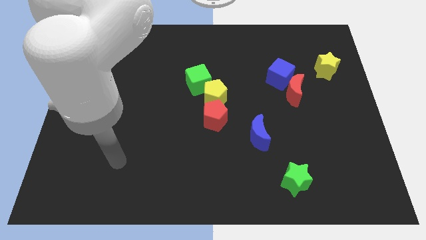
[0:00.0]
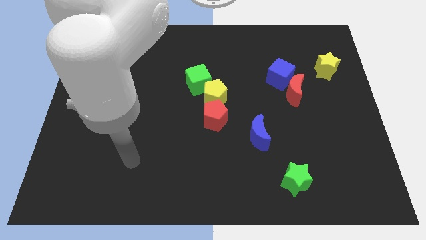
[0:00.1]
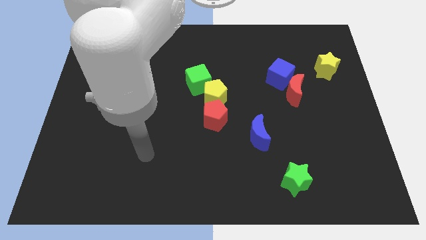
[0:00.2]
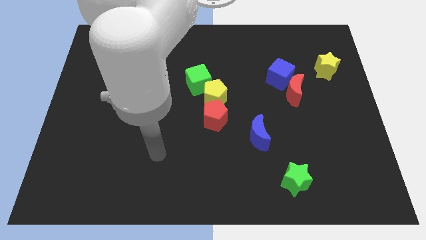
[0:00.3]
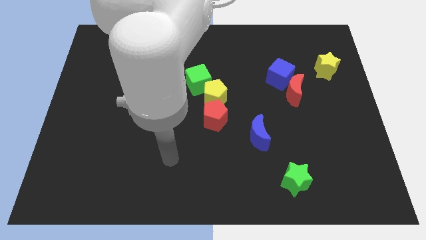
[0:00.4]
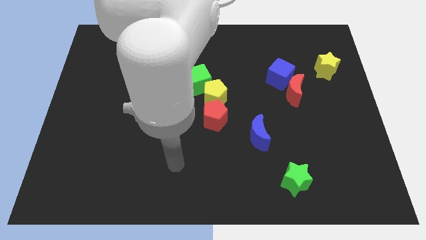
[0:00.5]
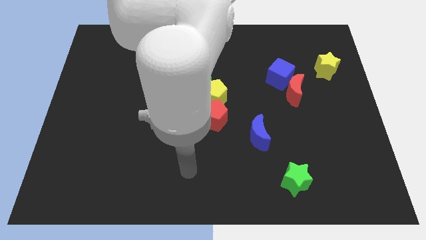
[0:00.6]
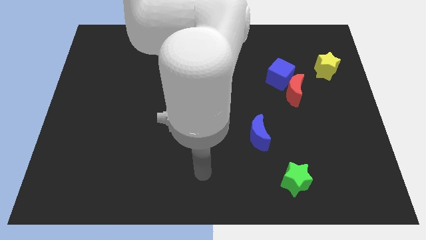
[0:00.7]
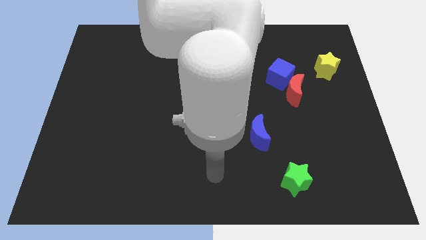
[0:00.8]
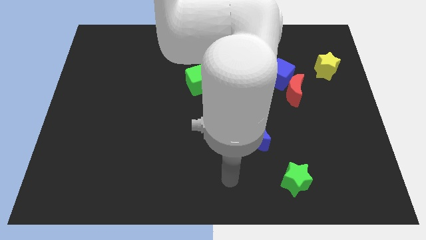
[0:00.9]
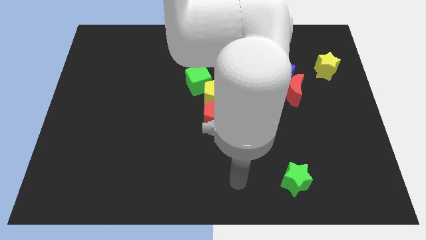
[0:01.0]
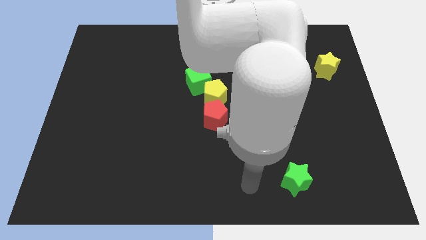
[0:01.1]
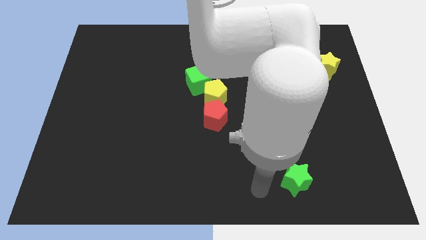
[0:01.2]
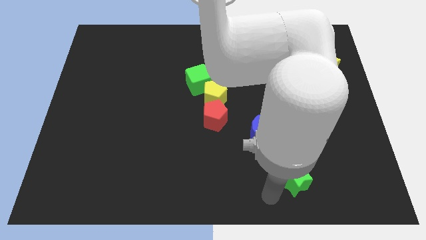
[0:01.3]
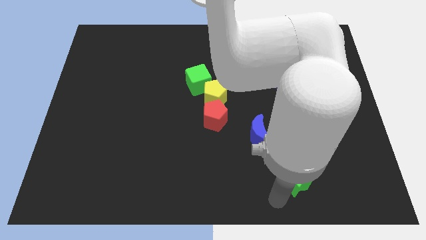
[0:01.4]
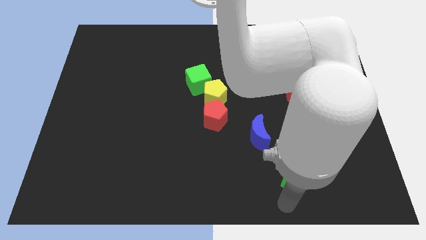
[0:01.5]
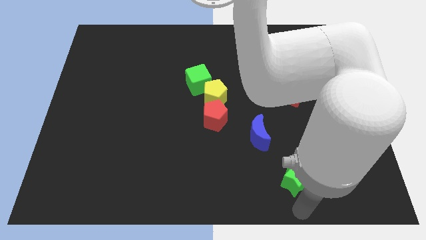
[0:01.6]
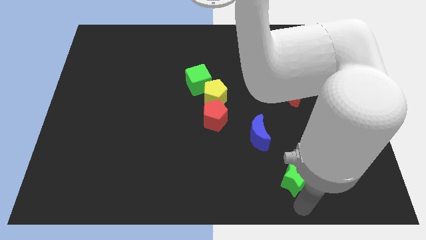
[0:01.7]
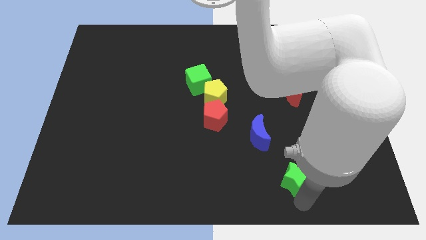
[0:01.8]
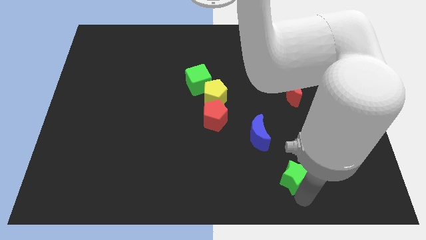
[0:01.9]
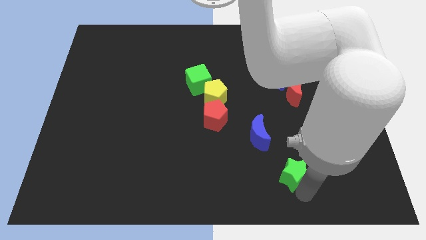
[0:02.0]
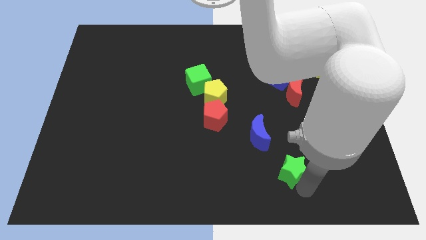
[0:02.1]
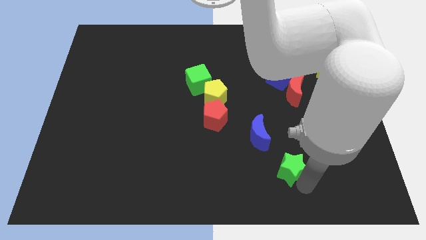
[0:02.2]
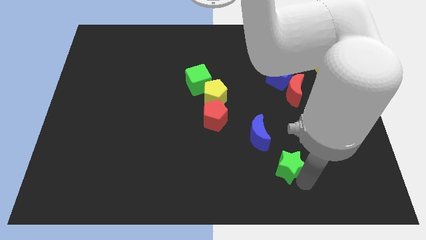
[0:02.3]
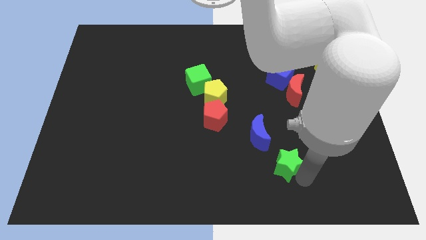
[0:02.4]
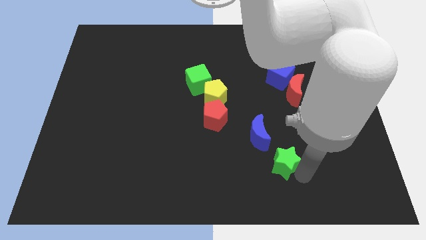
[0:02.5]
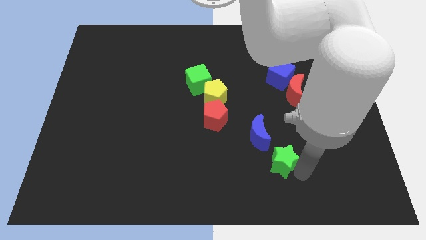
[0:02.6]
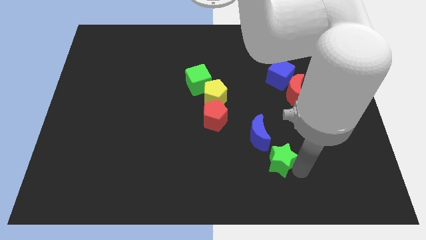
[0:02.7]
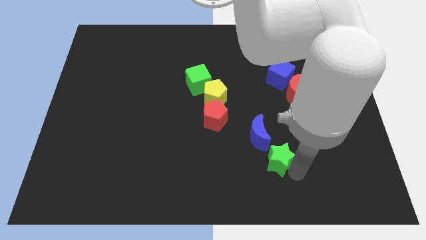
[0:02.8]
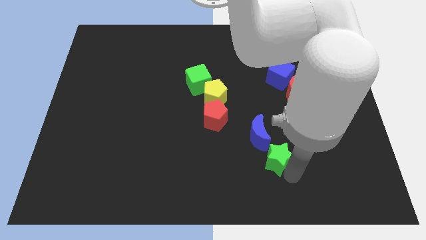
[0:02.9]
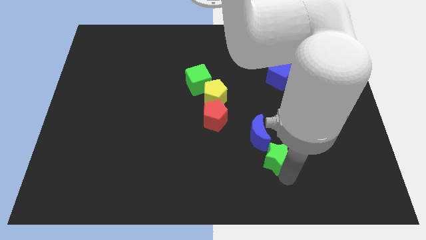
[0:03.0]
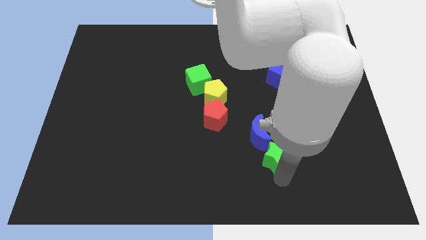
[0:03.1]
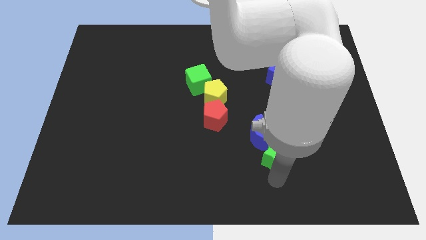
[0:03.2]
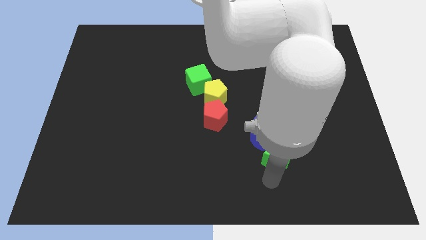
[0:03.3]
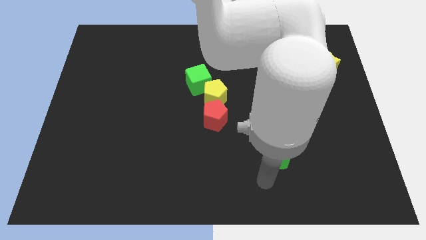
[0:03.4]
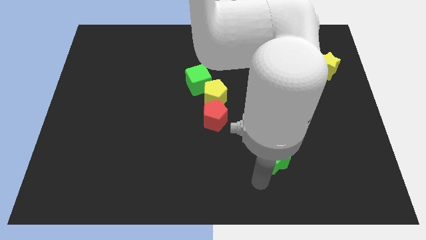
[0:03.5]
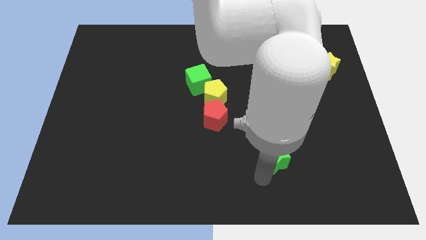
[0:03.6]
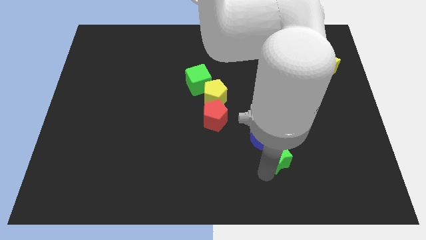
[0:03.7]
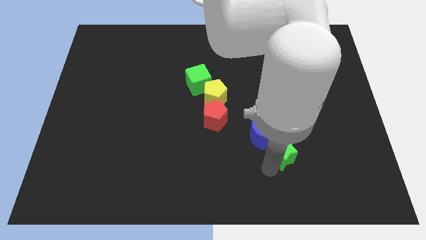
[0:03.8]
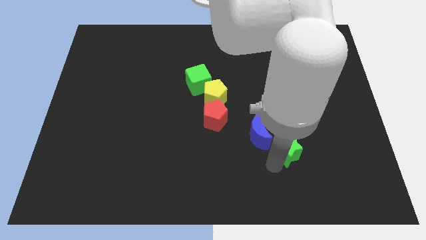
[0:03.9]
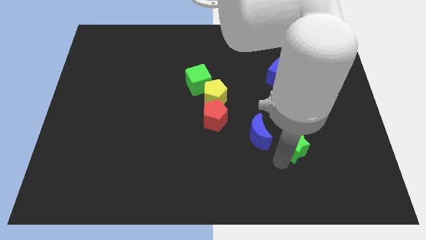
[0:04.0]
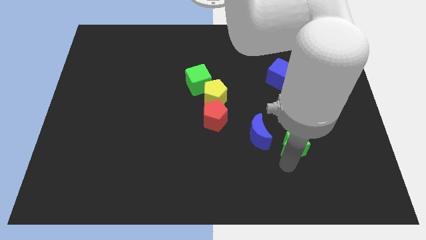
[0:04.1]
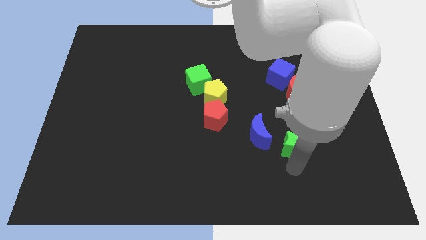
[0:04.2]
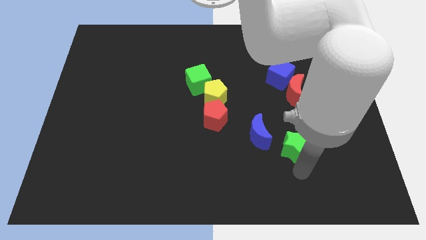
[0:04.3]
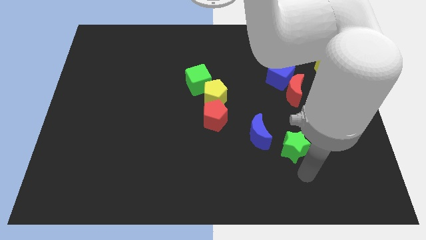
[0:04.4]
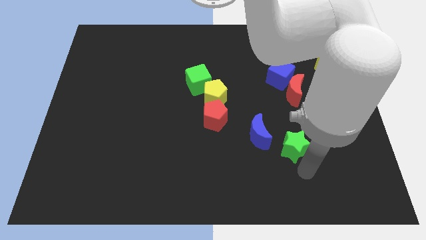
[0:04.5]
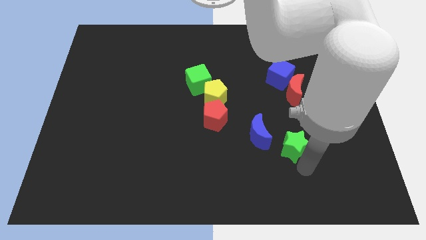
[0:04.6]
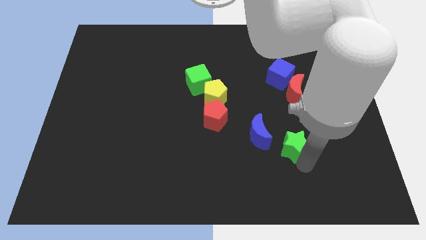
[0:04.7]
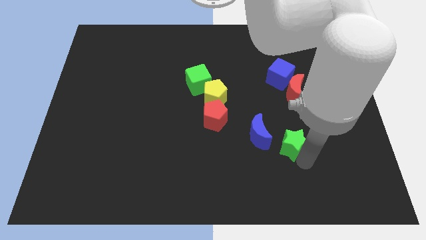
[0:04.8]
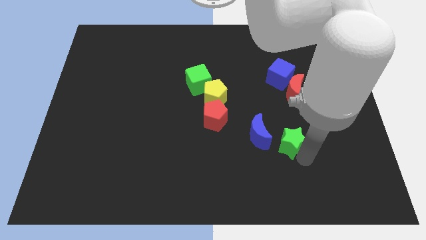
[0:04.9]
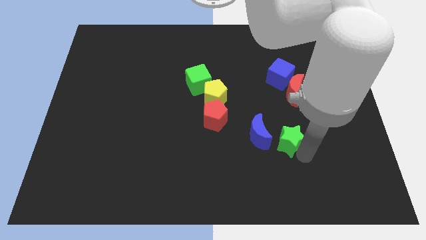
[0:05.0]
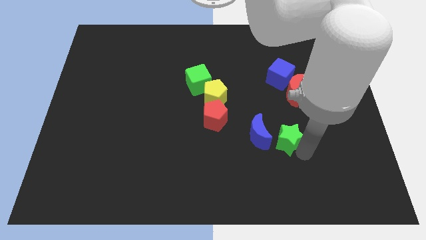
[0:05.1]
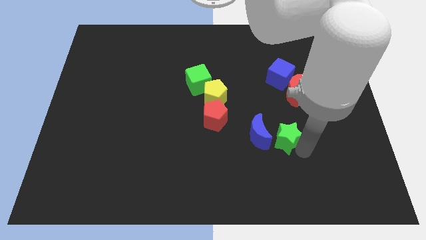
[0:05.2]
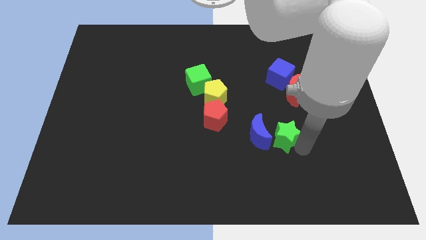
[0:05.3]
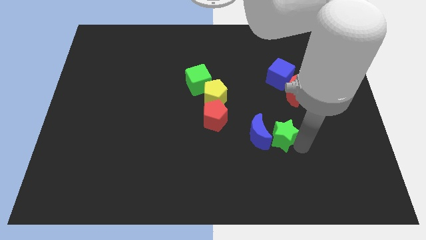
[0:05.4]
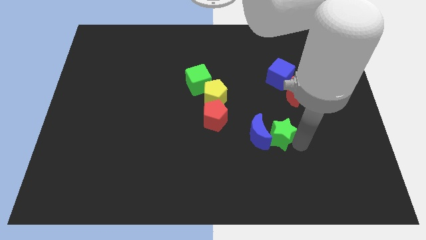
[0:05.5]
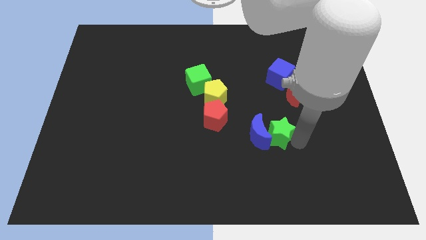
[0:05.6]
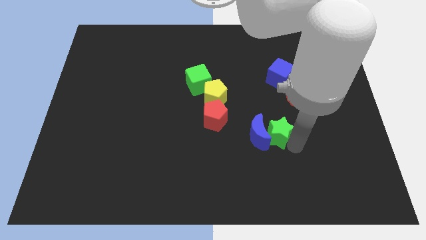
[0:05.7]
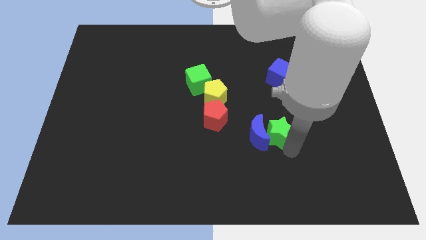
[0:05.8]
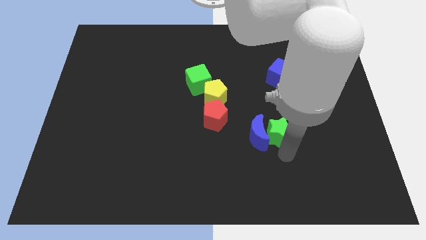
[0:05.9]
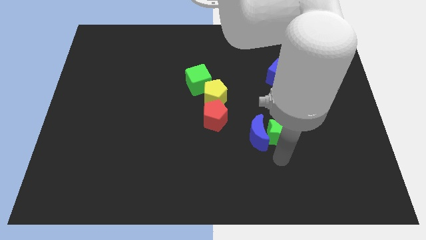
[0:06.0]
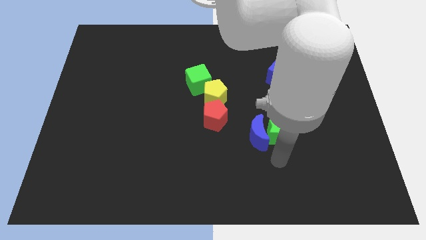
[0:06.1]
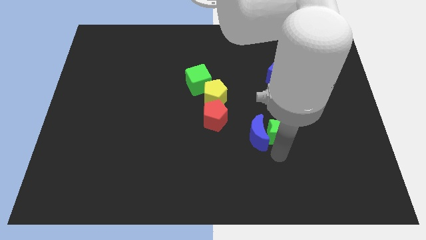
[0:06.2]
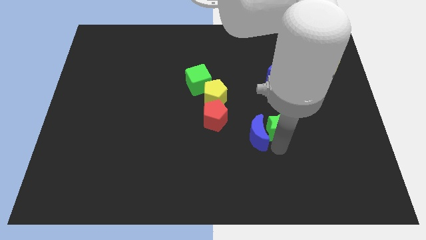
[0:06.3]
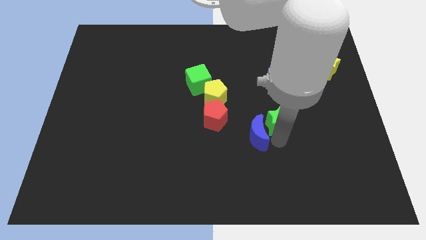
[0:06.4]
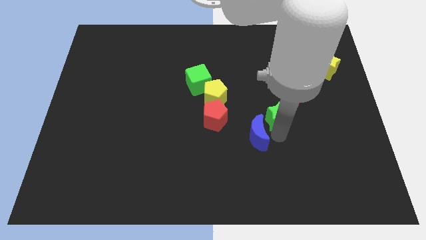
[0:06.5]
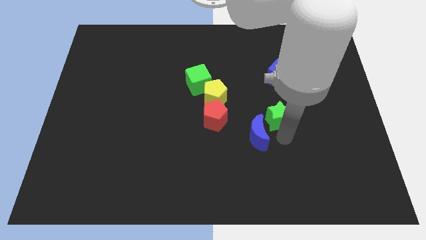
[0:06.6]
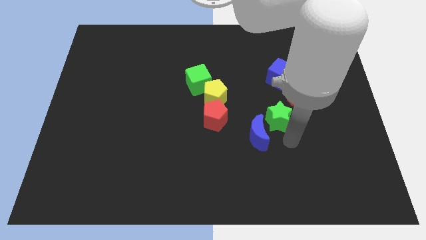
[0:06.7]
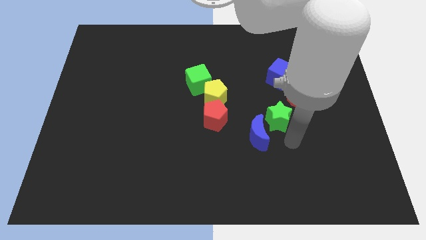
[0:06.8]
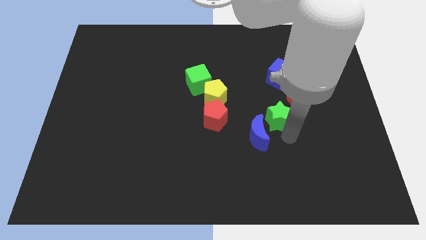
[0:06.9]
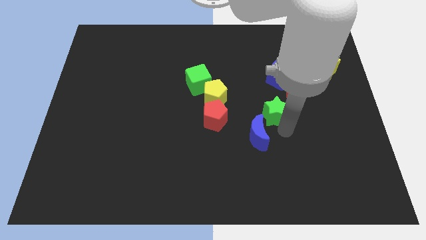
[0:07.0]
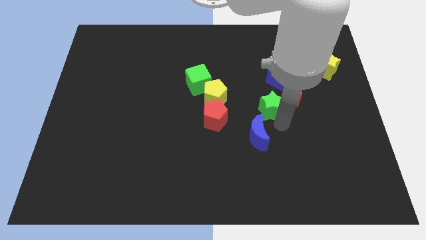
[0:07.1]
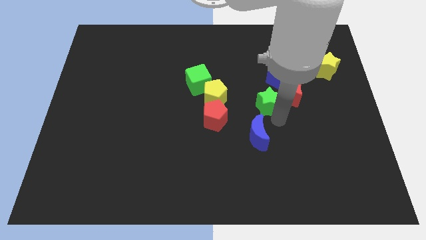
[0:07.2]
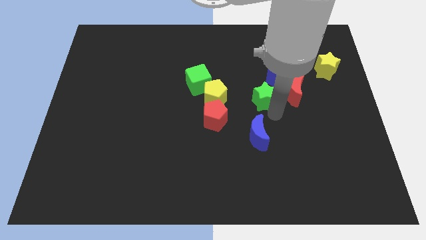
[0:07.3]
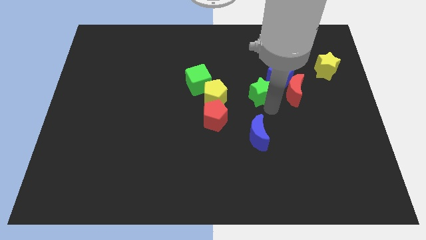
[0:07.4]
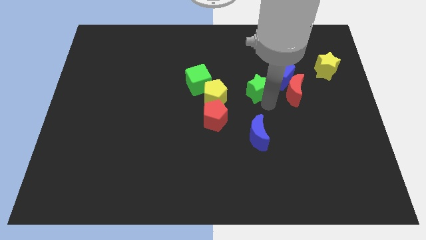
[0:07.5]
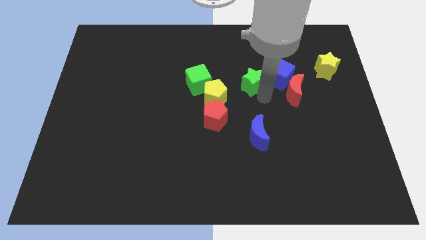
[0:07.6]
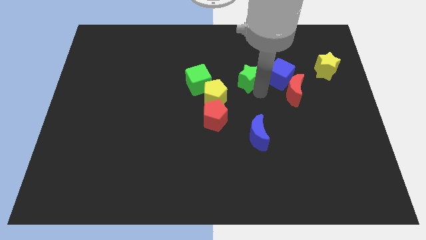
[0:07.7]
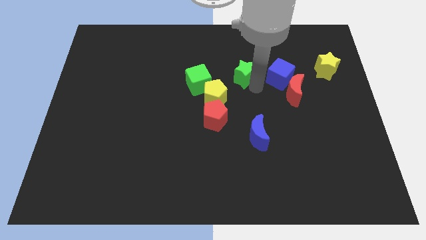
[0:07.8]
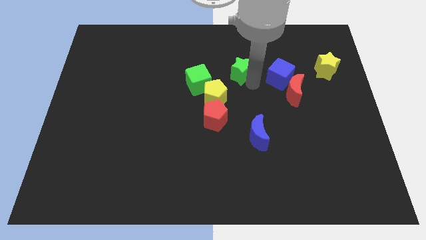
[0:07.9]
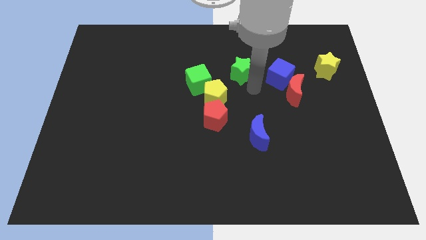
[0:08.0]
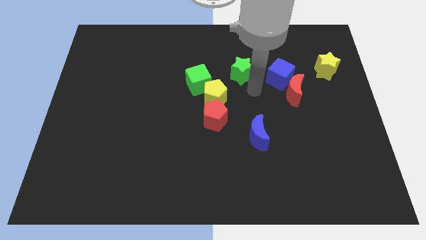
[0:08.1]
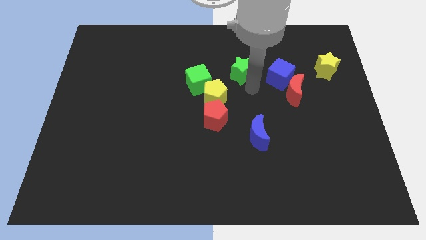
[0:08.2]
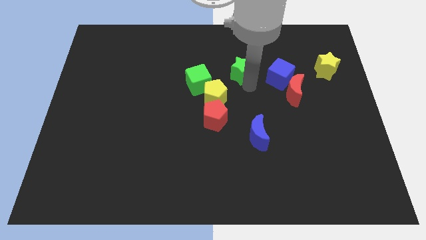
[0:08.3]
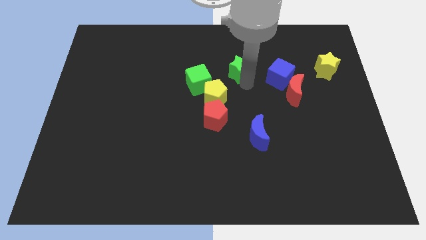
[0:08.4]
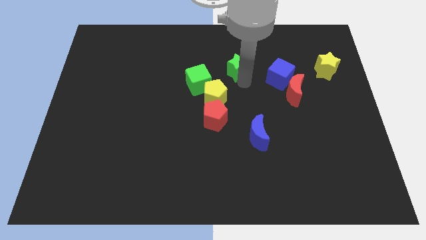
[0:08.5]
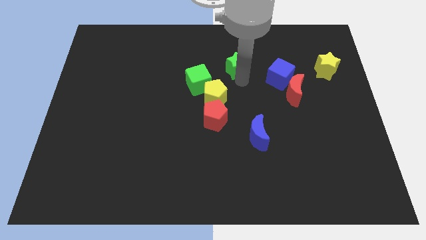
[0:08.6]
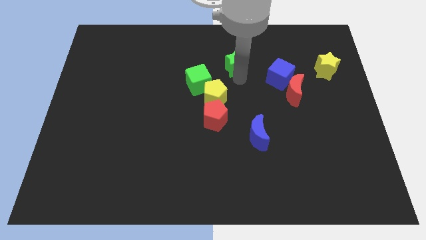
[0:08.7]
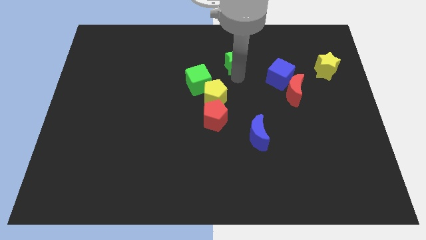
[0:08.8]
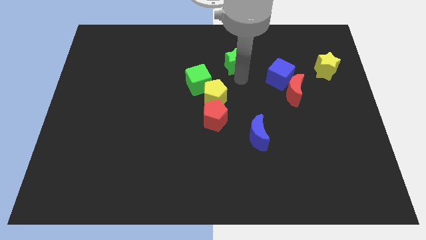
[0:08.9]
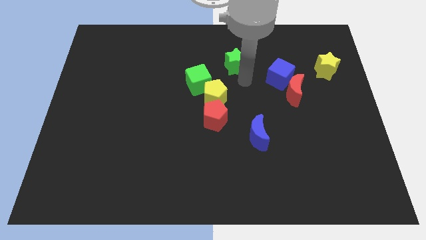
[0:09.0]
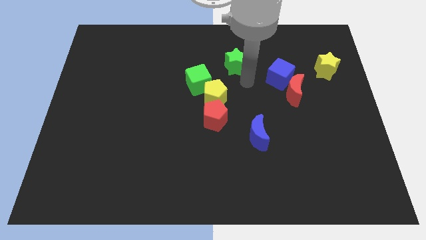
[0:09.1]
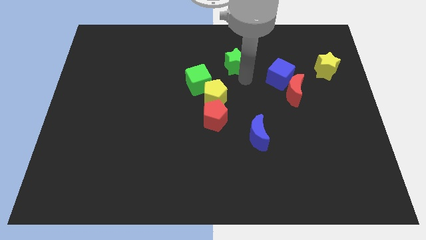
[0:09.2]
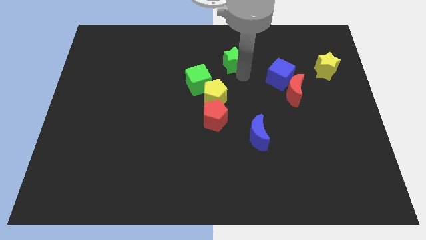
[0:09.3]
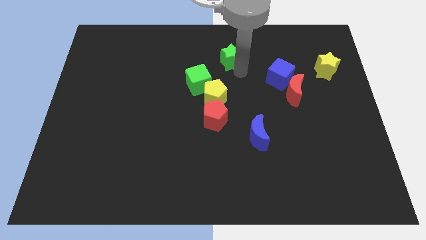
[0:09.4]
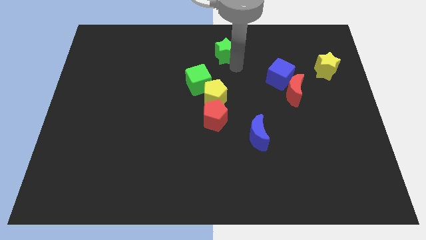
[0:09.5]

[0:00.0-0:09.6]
move the green star to the top
